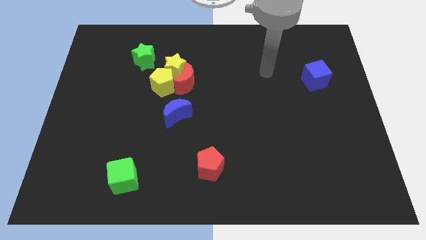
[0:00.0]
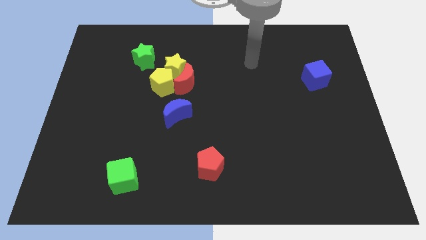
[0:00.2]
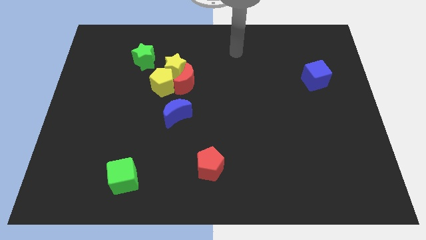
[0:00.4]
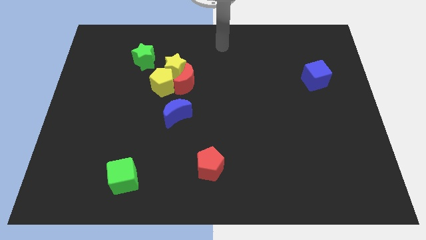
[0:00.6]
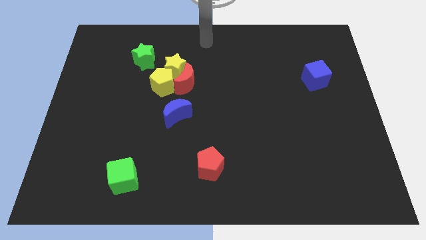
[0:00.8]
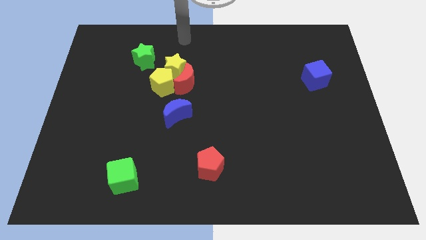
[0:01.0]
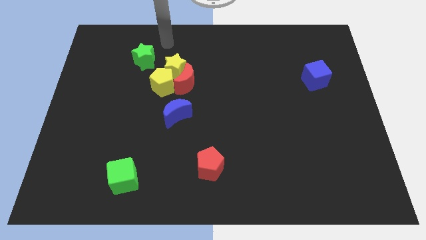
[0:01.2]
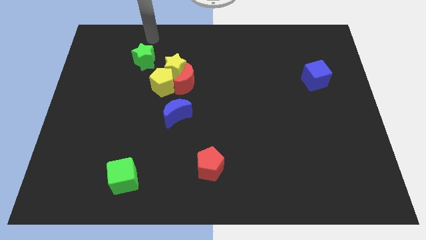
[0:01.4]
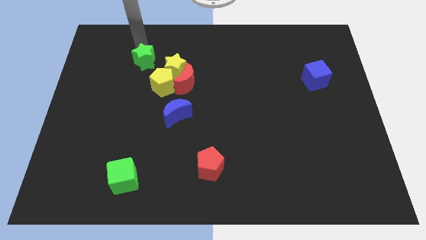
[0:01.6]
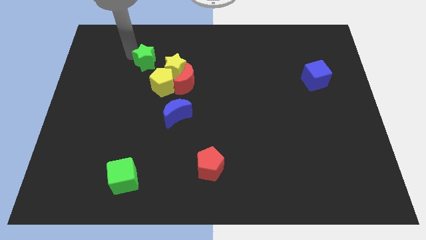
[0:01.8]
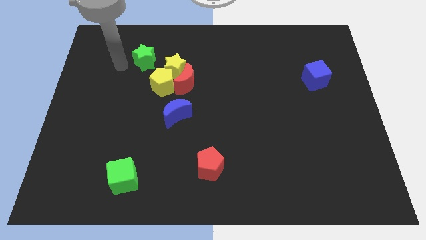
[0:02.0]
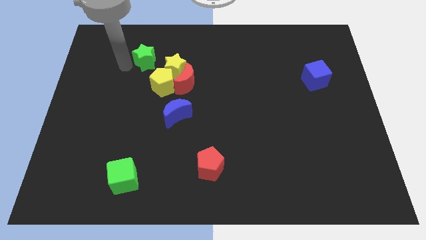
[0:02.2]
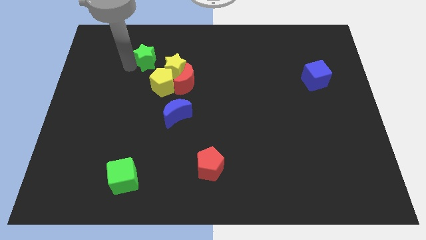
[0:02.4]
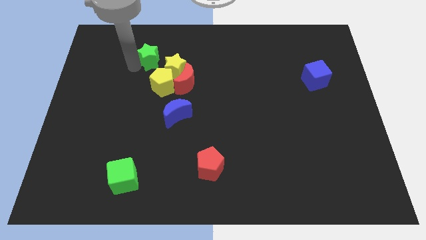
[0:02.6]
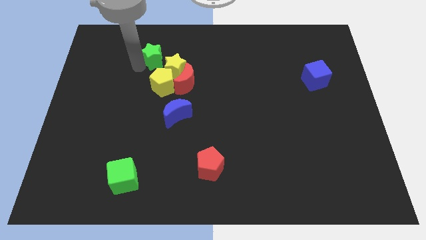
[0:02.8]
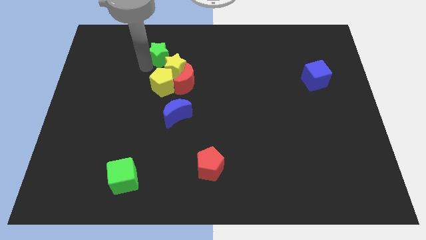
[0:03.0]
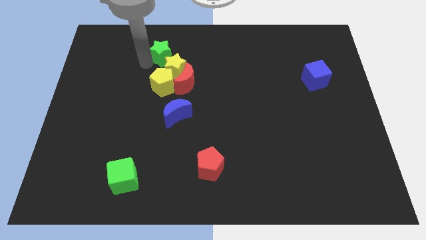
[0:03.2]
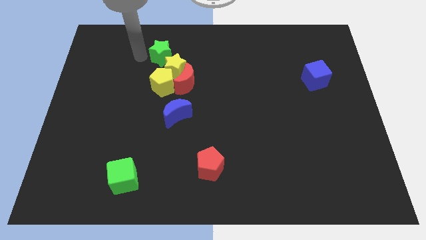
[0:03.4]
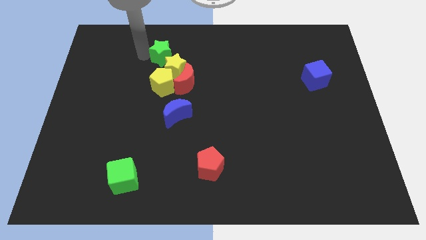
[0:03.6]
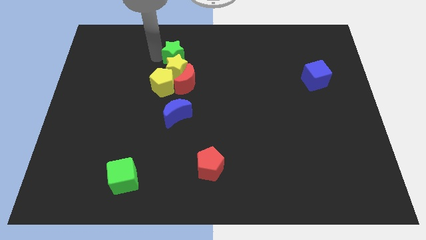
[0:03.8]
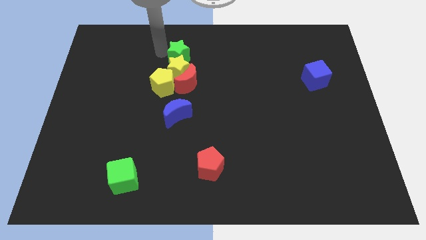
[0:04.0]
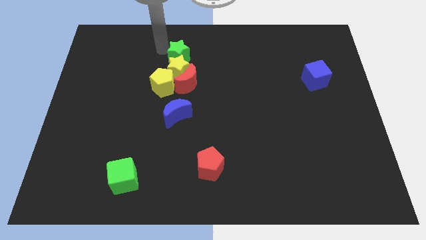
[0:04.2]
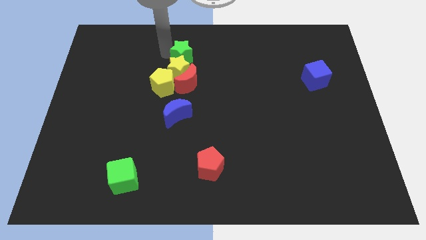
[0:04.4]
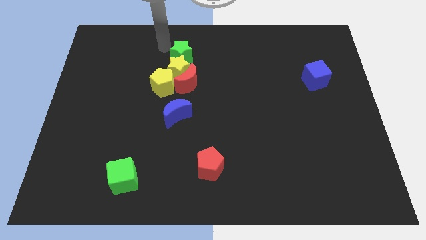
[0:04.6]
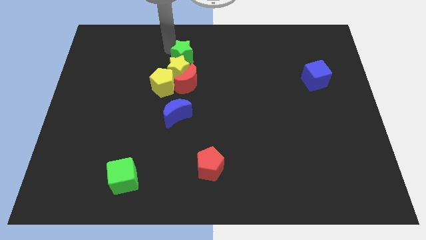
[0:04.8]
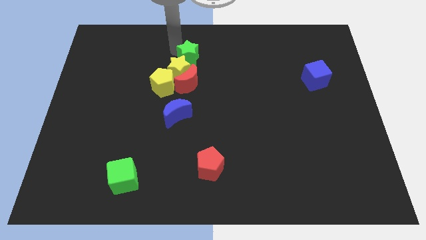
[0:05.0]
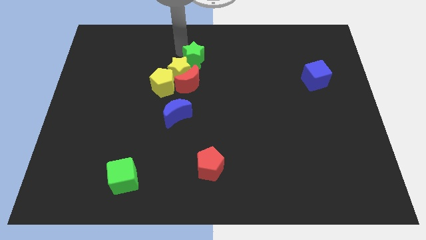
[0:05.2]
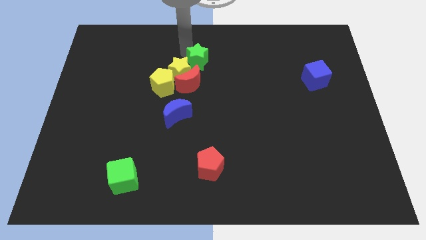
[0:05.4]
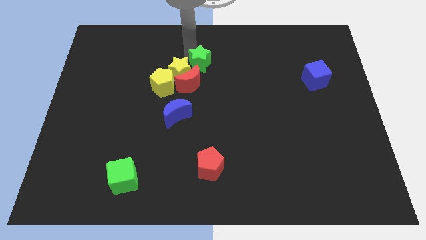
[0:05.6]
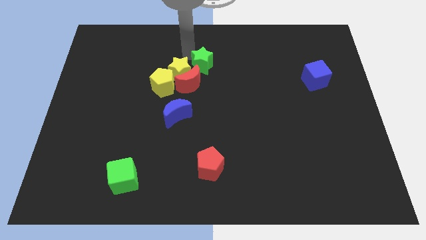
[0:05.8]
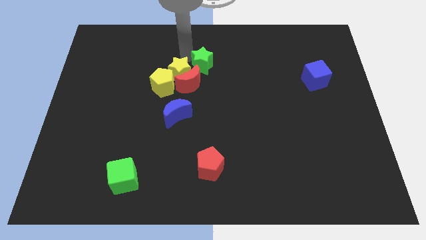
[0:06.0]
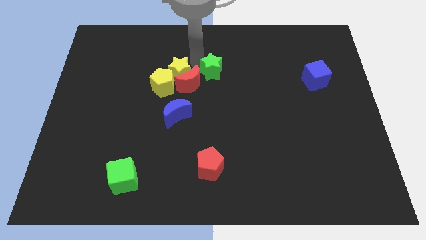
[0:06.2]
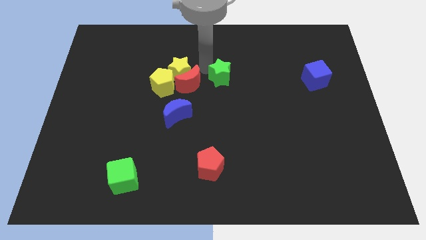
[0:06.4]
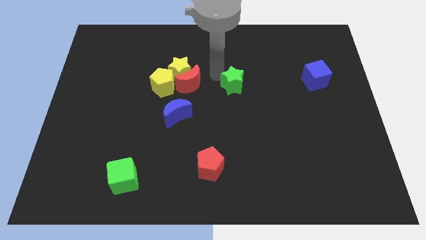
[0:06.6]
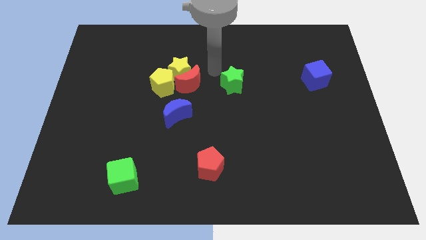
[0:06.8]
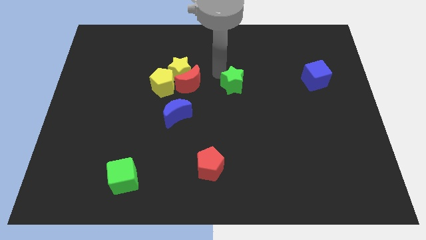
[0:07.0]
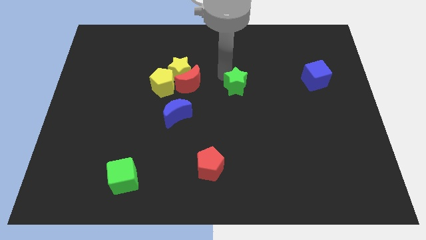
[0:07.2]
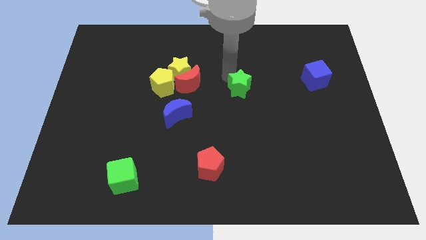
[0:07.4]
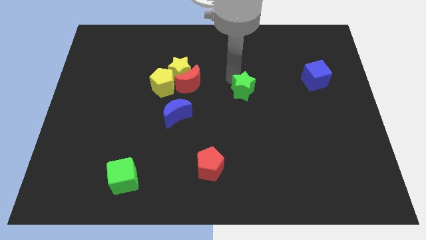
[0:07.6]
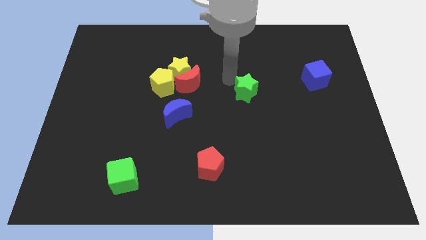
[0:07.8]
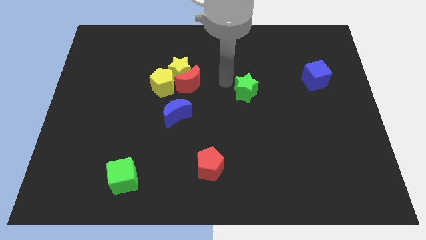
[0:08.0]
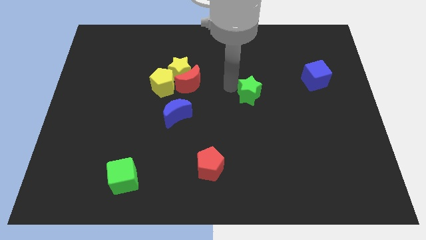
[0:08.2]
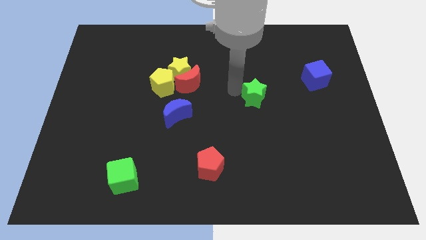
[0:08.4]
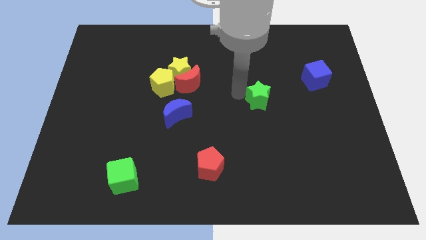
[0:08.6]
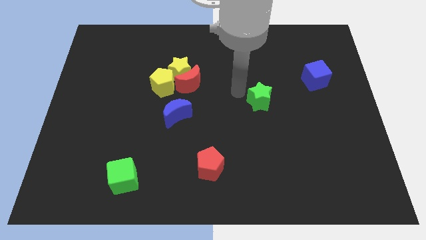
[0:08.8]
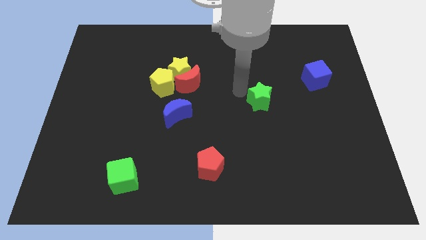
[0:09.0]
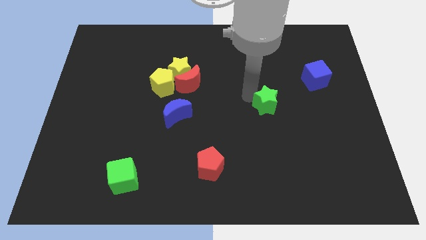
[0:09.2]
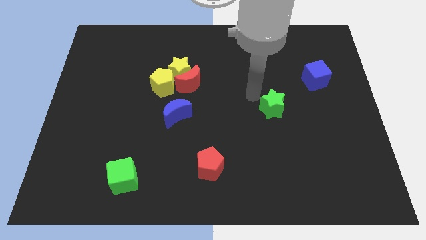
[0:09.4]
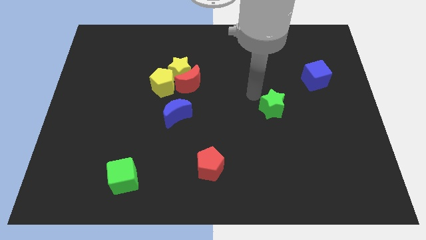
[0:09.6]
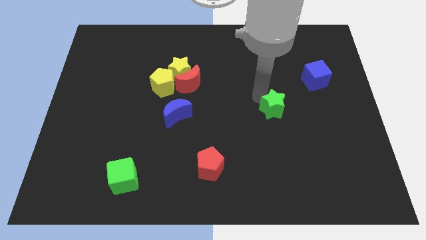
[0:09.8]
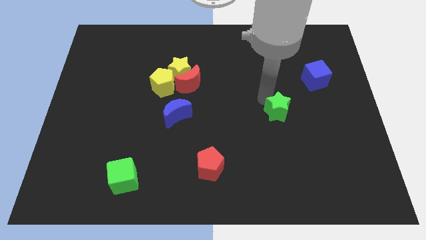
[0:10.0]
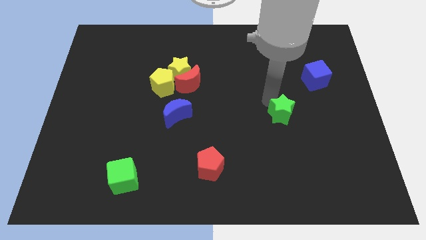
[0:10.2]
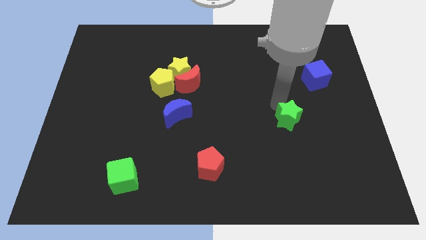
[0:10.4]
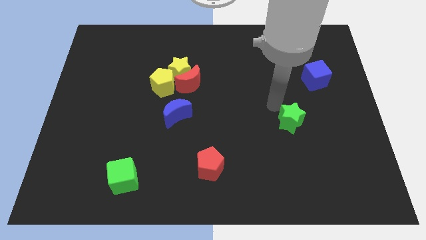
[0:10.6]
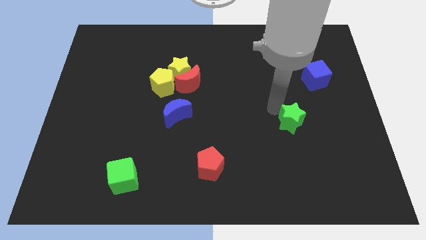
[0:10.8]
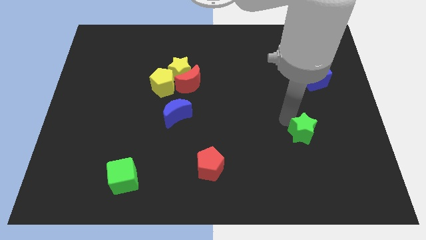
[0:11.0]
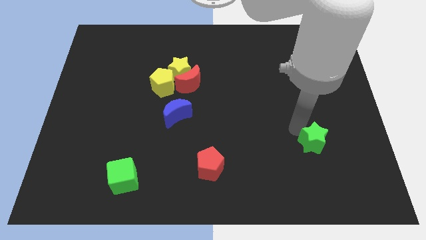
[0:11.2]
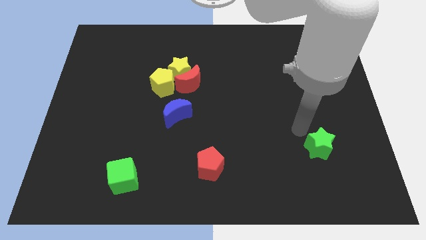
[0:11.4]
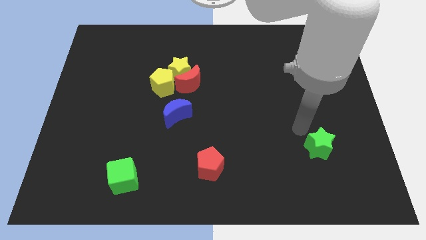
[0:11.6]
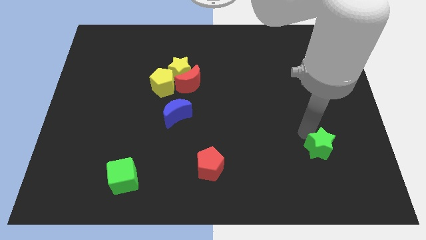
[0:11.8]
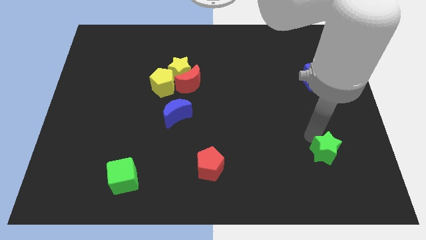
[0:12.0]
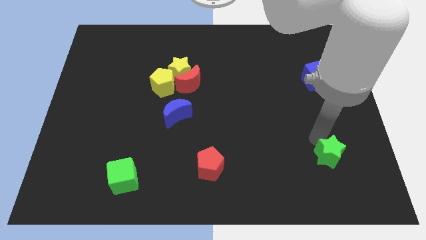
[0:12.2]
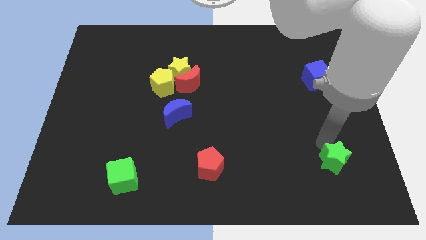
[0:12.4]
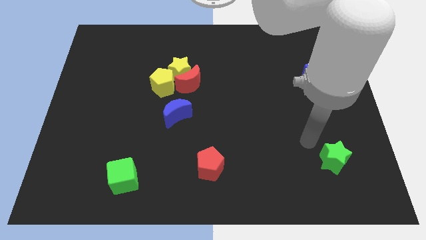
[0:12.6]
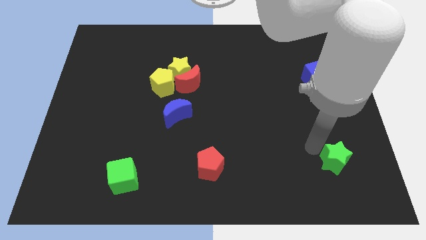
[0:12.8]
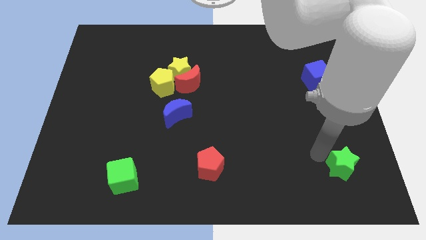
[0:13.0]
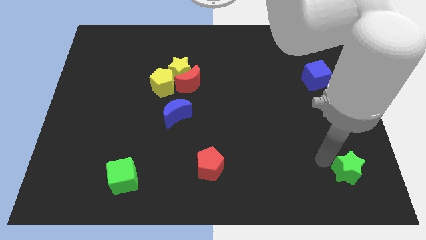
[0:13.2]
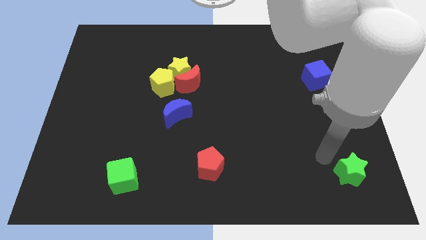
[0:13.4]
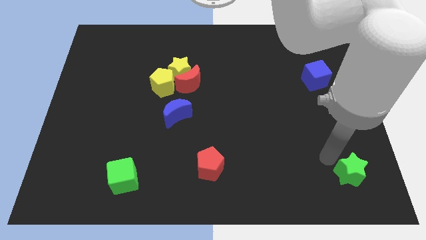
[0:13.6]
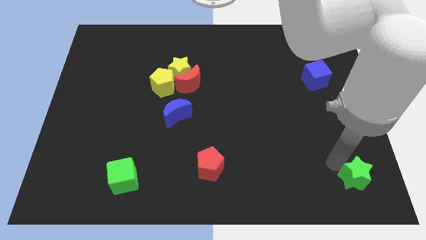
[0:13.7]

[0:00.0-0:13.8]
put the green star to the bottom right of the board
